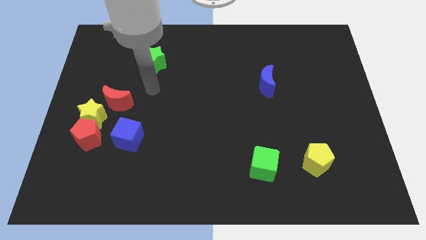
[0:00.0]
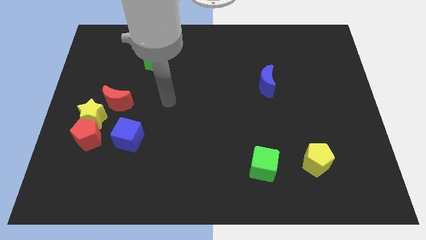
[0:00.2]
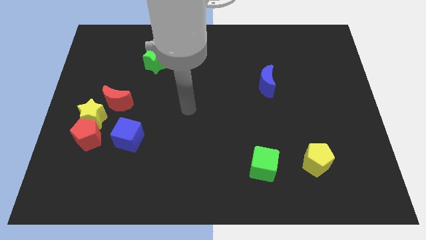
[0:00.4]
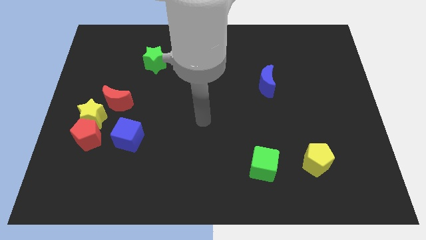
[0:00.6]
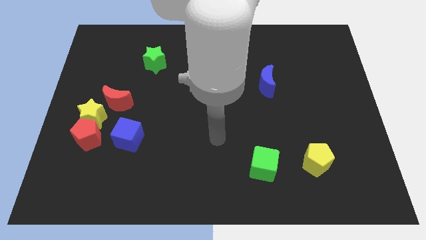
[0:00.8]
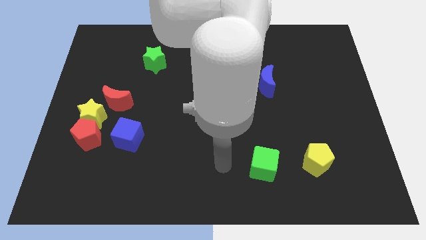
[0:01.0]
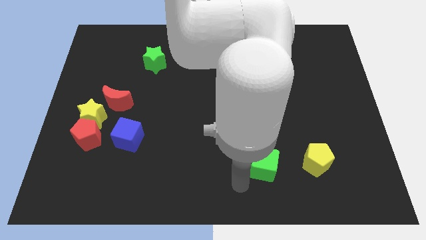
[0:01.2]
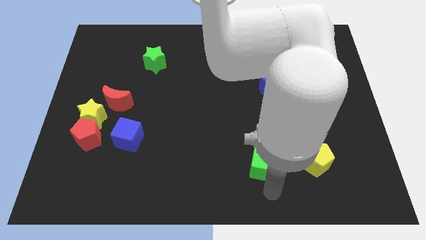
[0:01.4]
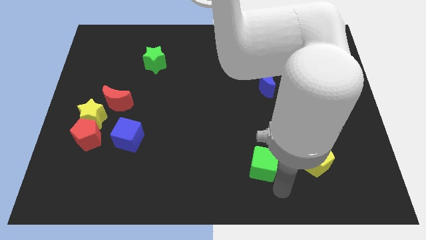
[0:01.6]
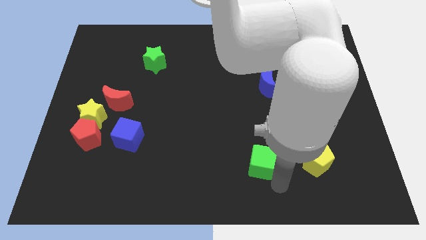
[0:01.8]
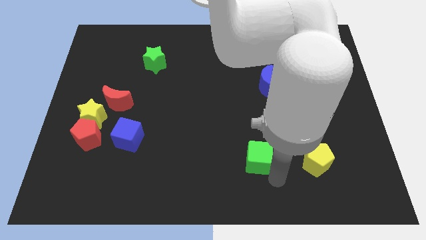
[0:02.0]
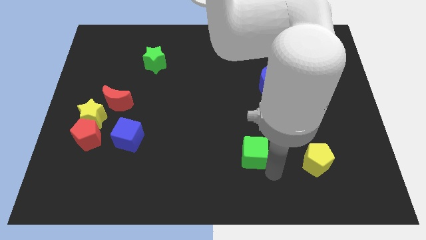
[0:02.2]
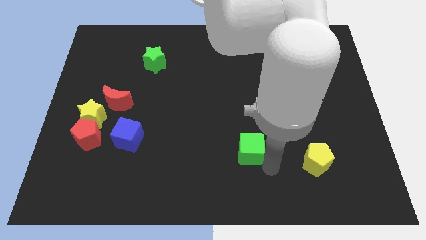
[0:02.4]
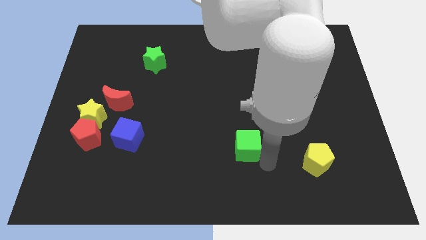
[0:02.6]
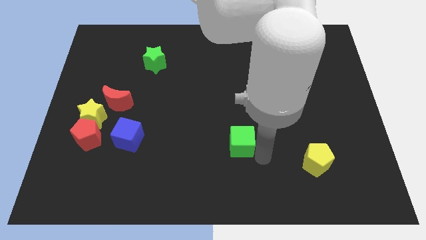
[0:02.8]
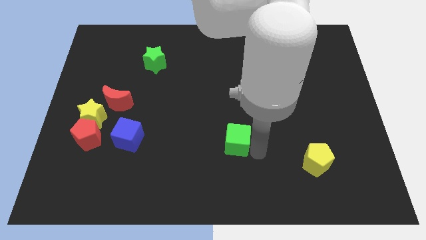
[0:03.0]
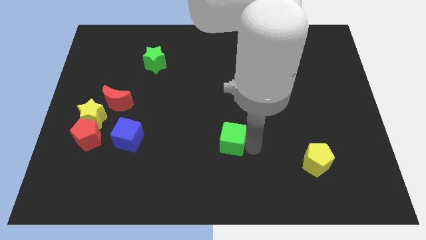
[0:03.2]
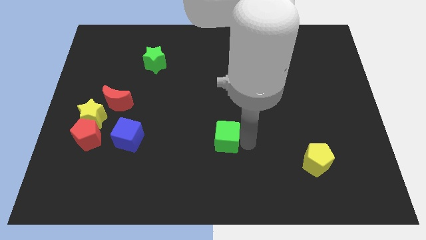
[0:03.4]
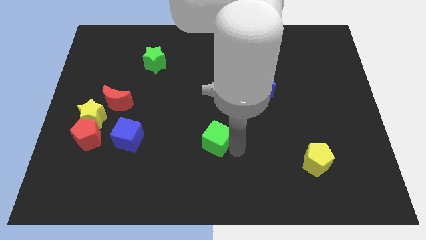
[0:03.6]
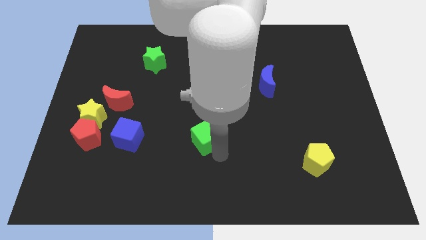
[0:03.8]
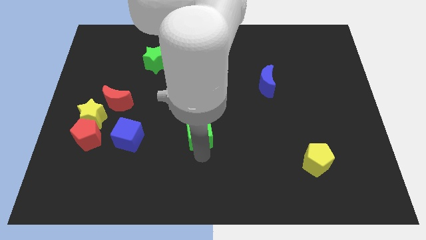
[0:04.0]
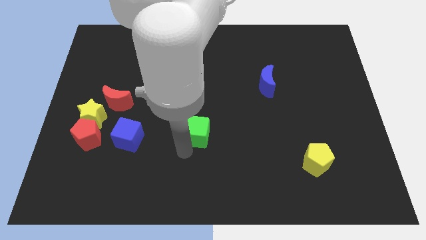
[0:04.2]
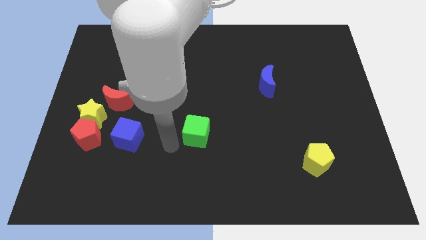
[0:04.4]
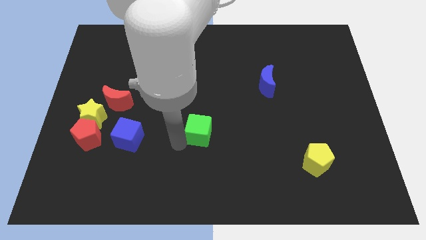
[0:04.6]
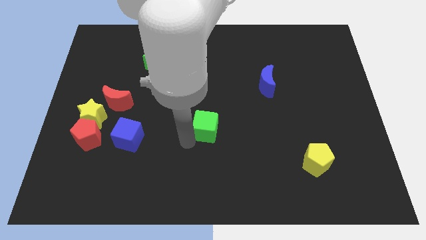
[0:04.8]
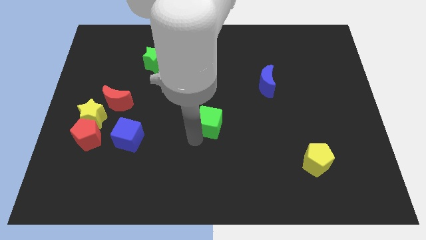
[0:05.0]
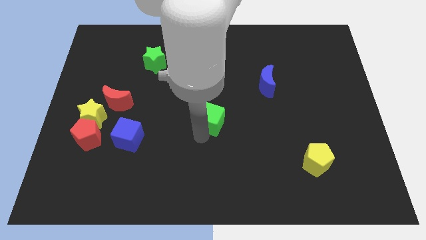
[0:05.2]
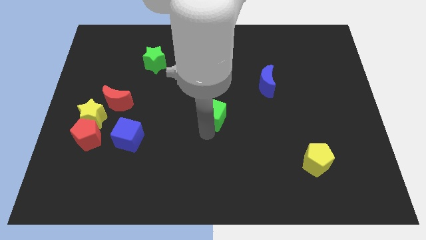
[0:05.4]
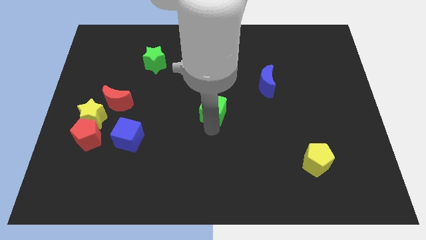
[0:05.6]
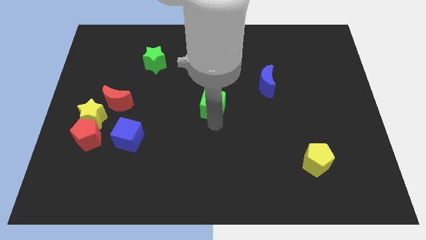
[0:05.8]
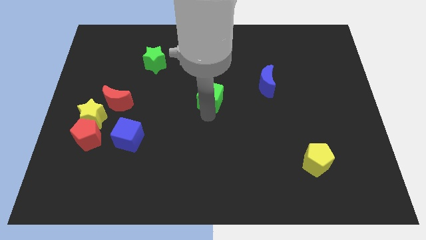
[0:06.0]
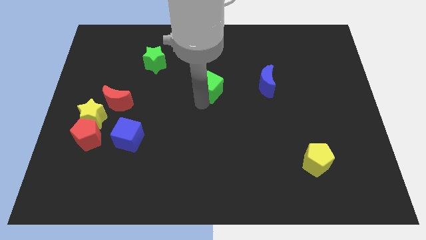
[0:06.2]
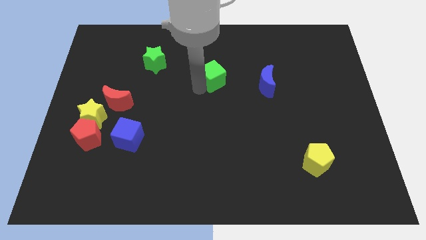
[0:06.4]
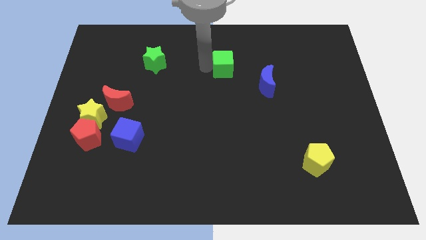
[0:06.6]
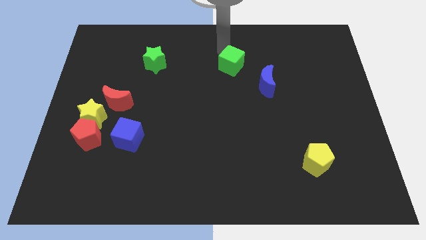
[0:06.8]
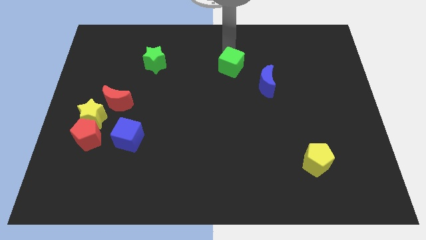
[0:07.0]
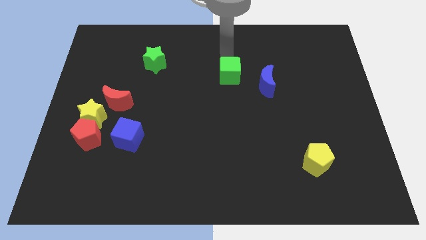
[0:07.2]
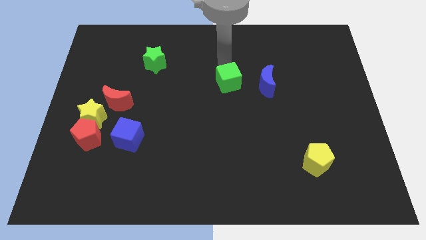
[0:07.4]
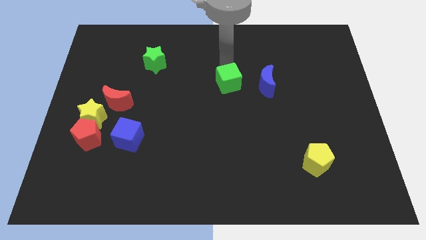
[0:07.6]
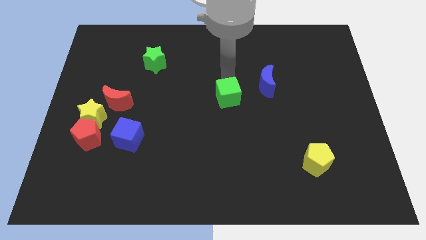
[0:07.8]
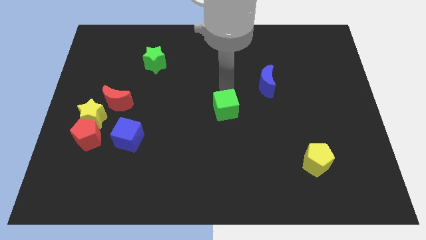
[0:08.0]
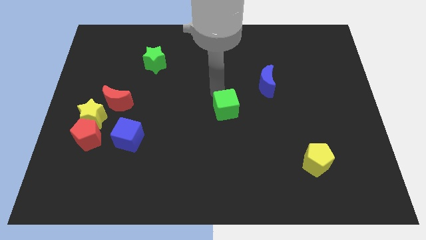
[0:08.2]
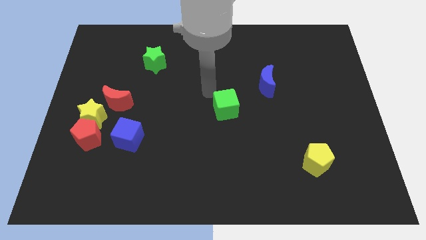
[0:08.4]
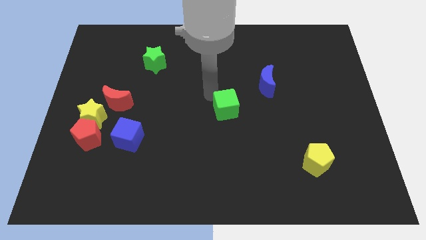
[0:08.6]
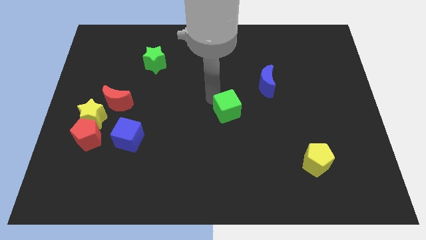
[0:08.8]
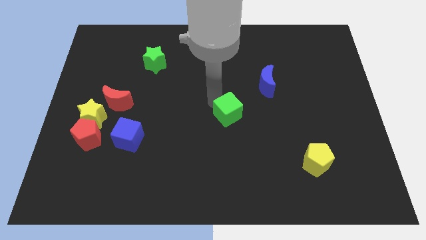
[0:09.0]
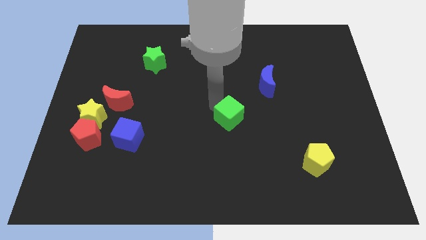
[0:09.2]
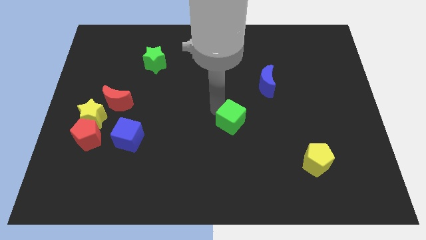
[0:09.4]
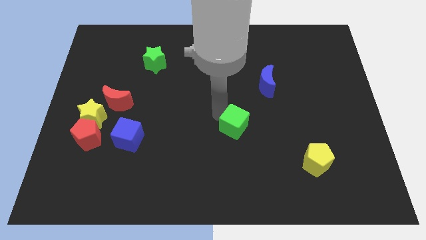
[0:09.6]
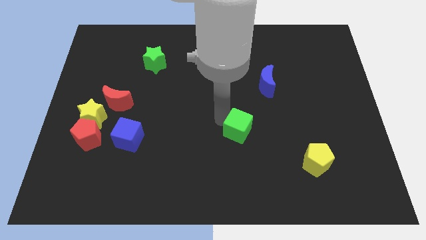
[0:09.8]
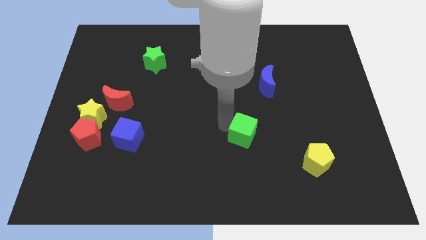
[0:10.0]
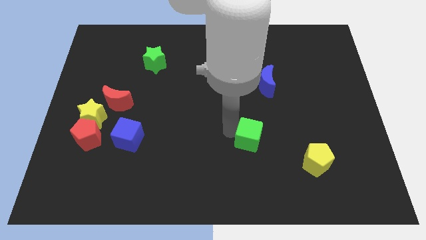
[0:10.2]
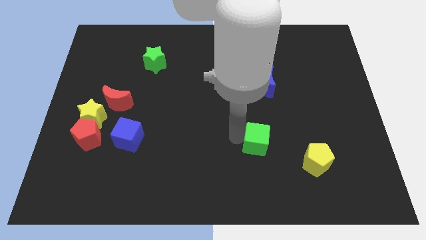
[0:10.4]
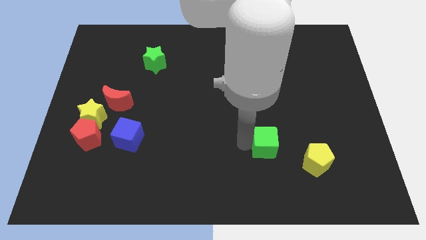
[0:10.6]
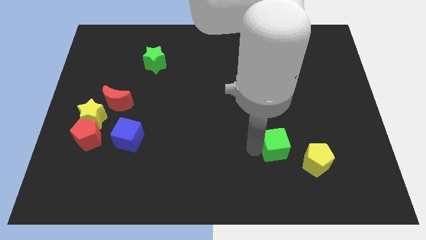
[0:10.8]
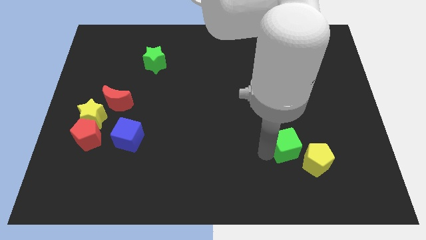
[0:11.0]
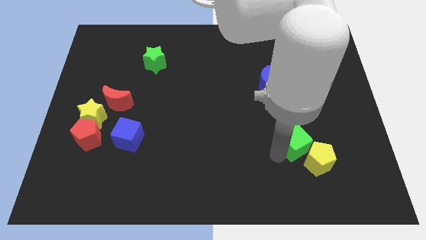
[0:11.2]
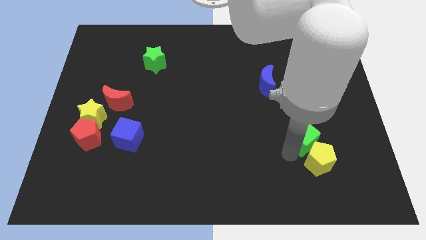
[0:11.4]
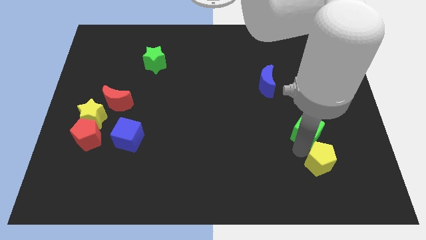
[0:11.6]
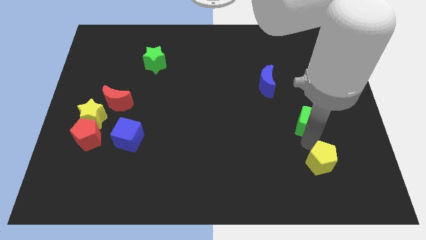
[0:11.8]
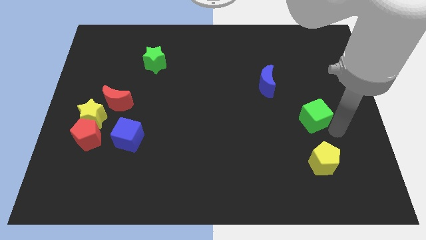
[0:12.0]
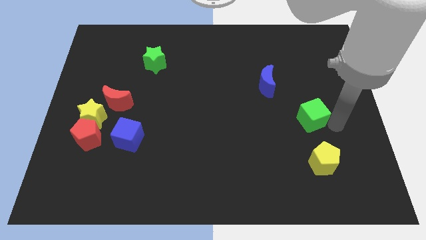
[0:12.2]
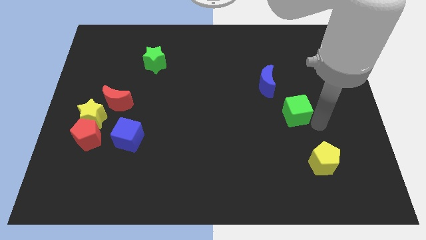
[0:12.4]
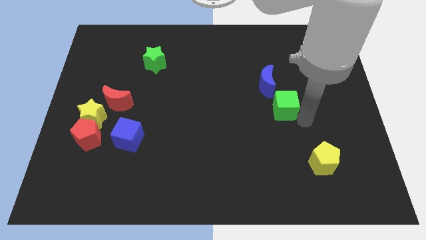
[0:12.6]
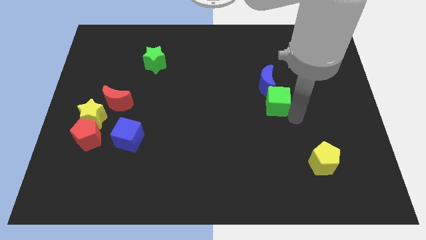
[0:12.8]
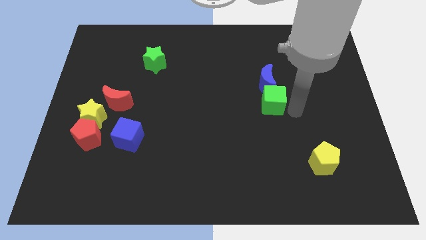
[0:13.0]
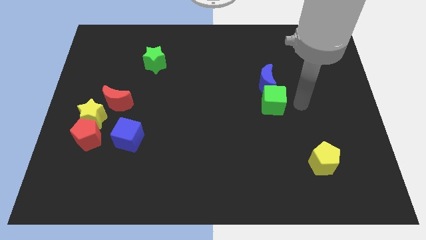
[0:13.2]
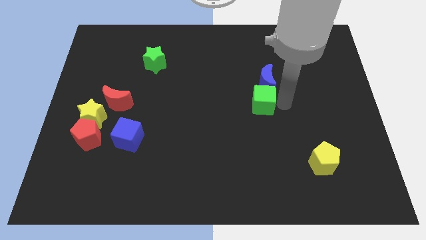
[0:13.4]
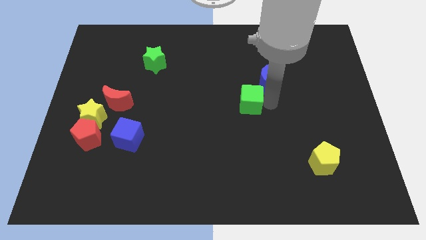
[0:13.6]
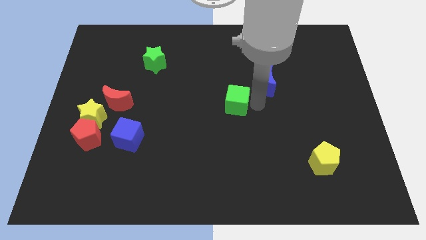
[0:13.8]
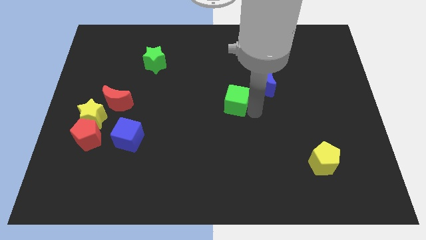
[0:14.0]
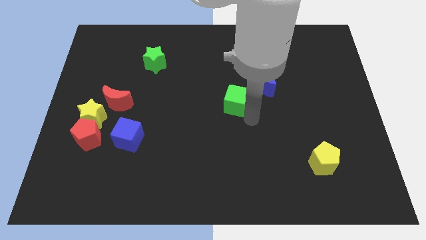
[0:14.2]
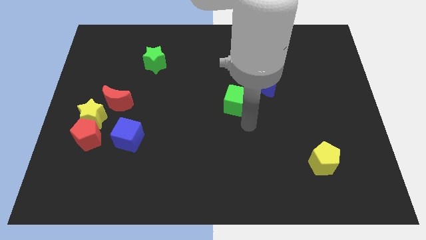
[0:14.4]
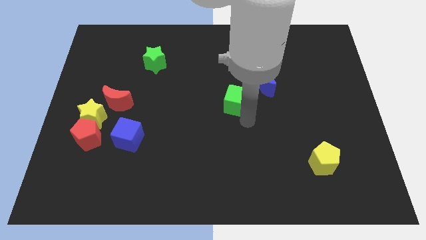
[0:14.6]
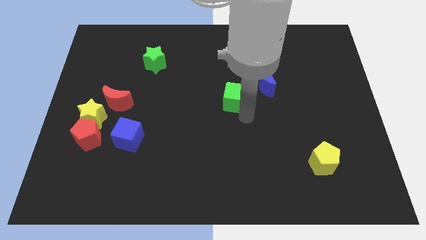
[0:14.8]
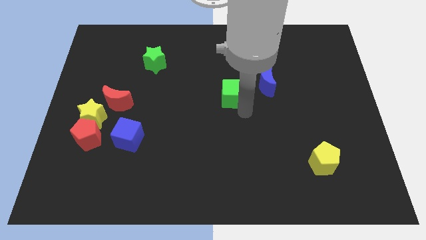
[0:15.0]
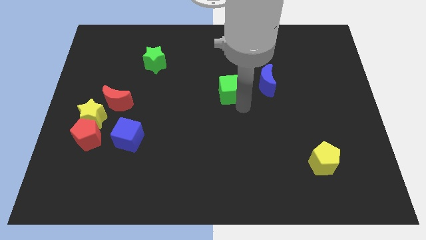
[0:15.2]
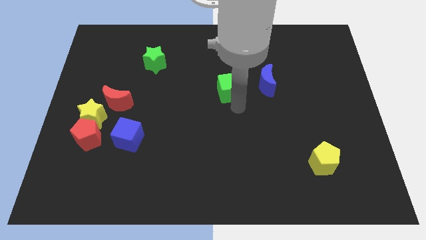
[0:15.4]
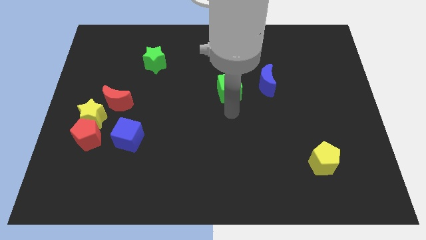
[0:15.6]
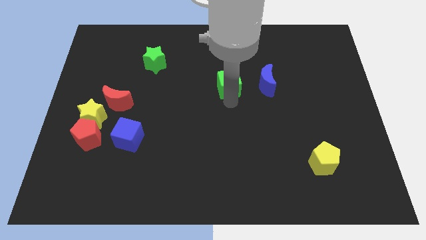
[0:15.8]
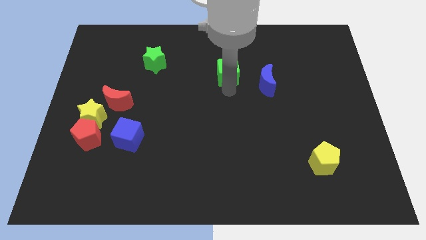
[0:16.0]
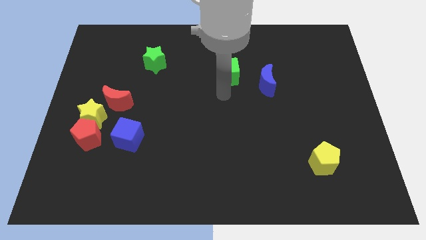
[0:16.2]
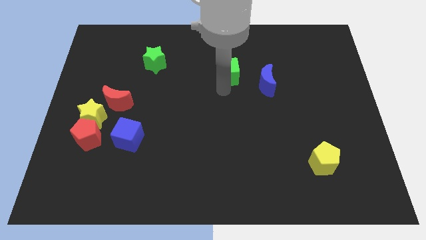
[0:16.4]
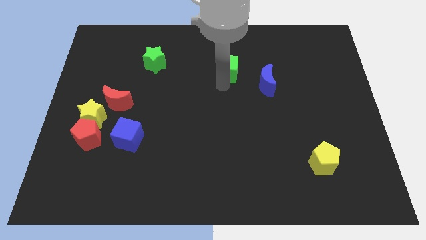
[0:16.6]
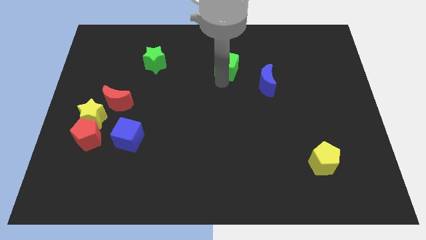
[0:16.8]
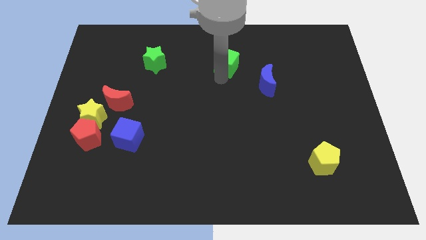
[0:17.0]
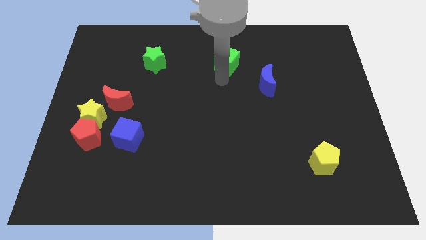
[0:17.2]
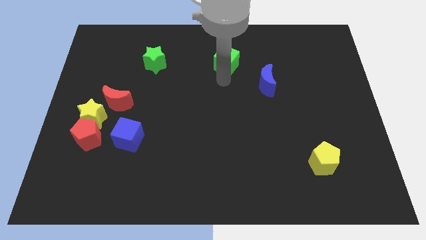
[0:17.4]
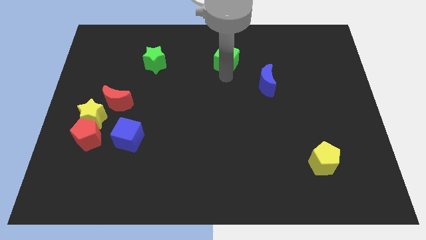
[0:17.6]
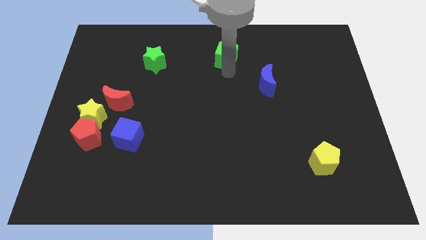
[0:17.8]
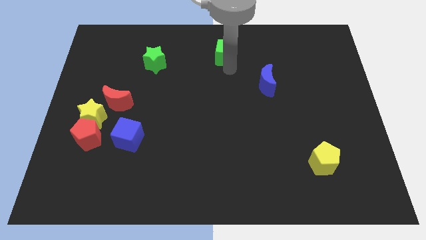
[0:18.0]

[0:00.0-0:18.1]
put the green cube to the towards your base
